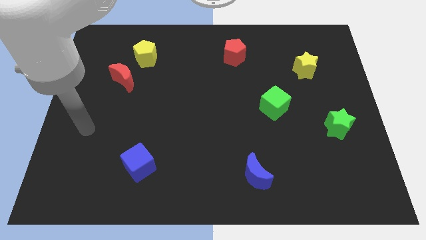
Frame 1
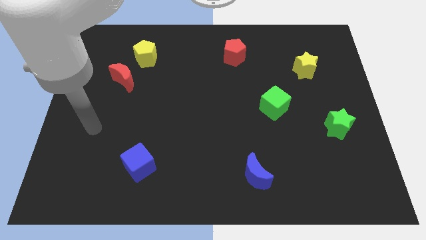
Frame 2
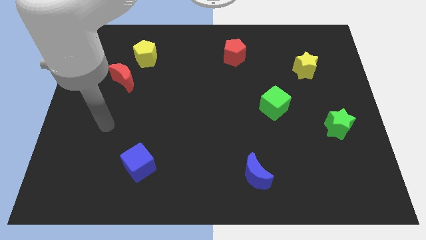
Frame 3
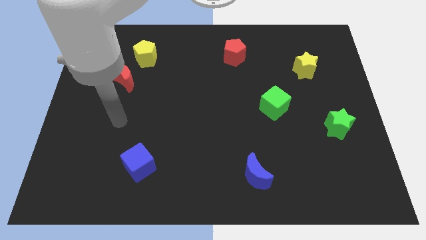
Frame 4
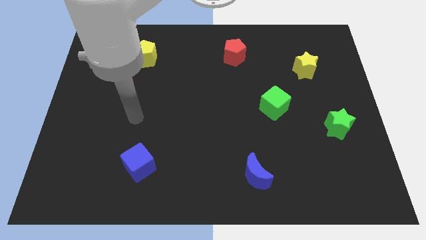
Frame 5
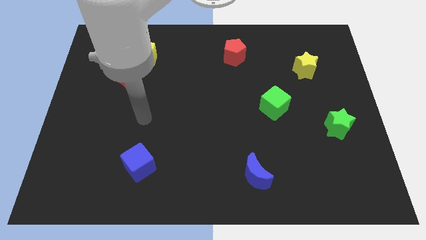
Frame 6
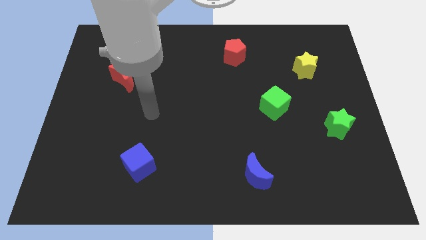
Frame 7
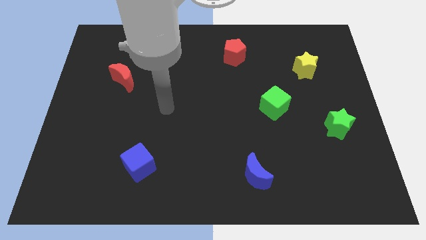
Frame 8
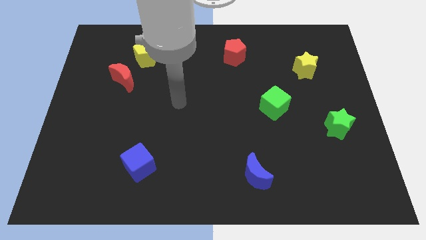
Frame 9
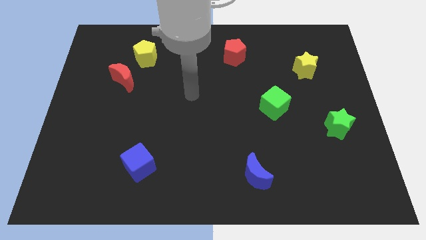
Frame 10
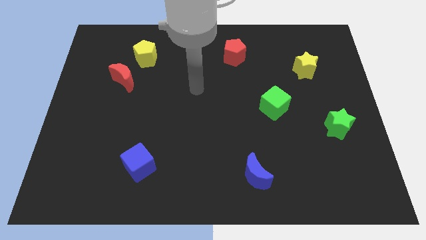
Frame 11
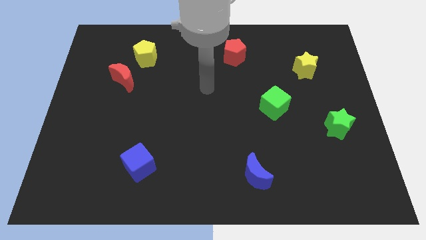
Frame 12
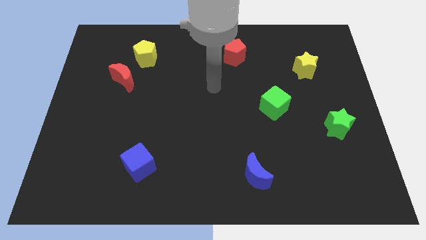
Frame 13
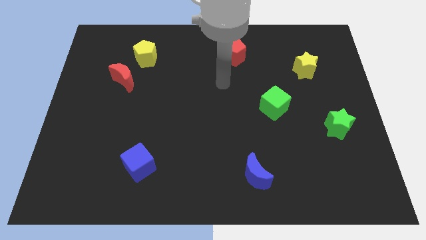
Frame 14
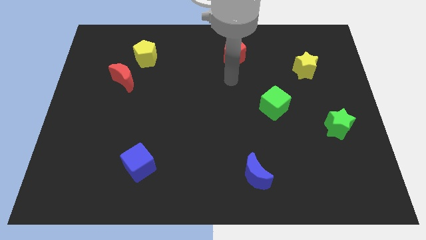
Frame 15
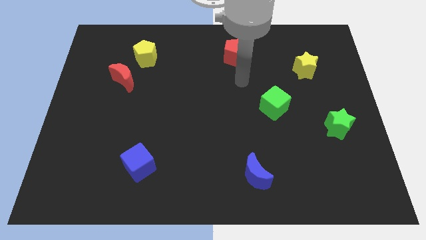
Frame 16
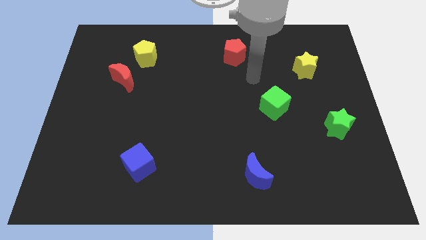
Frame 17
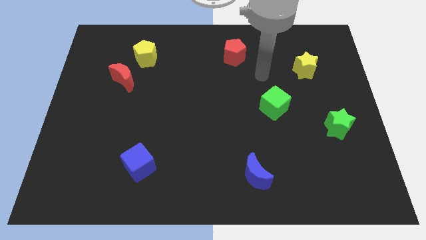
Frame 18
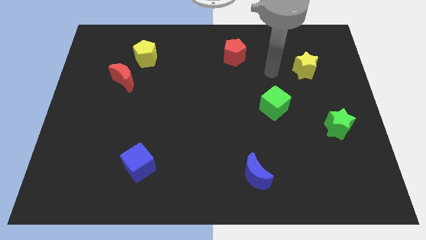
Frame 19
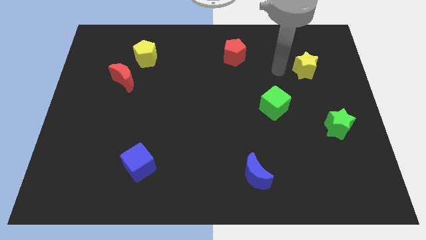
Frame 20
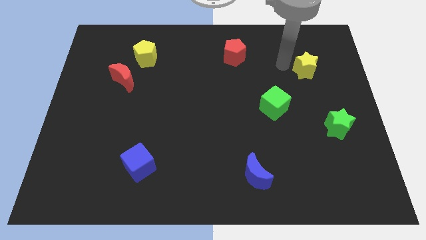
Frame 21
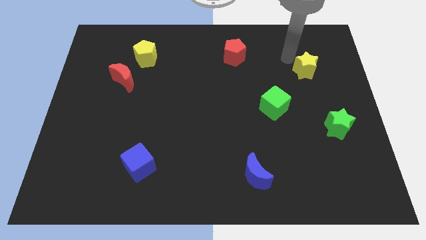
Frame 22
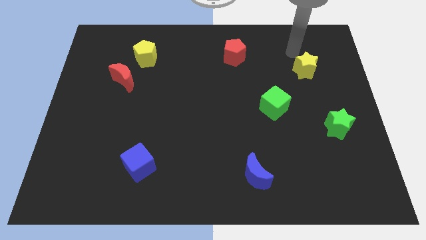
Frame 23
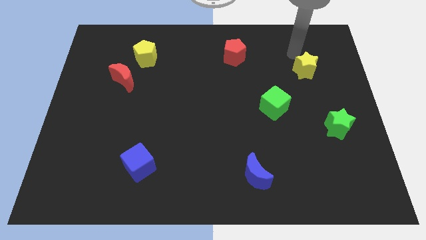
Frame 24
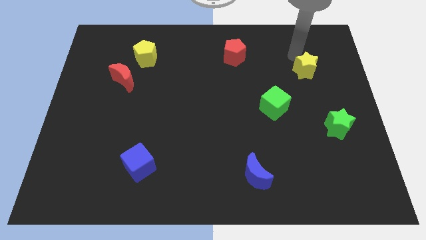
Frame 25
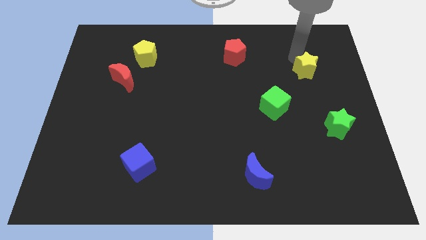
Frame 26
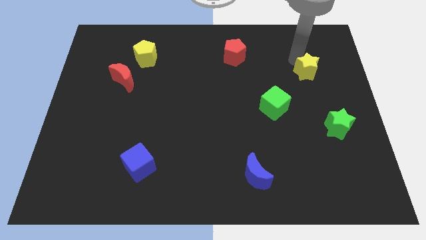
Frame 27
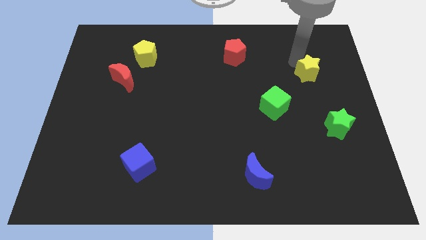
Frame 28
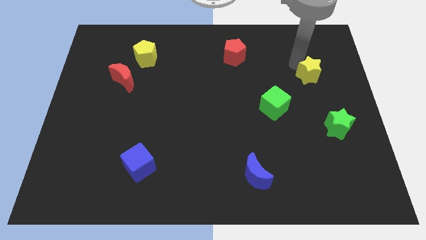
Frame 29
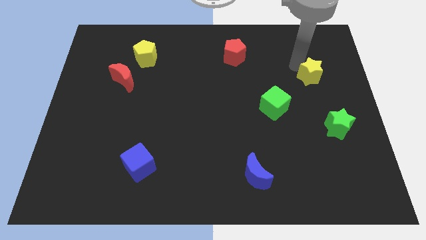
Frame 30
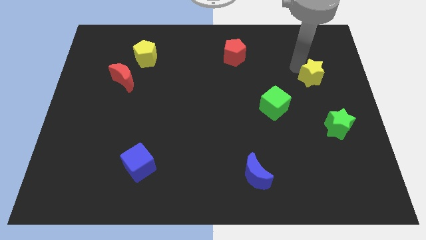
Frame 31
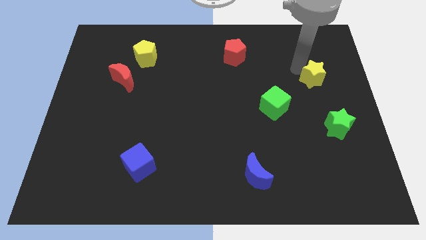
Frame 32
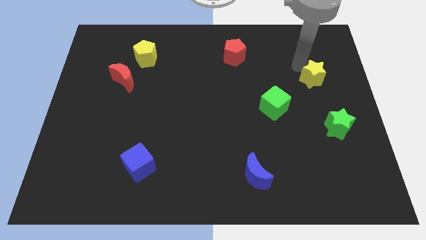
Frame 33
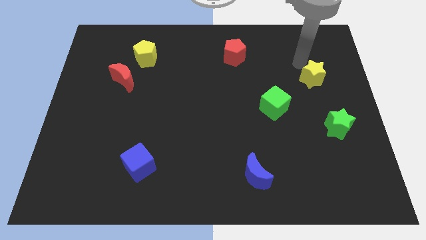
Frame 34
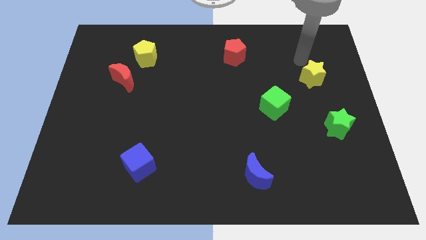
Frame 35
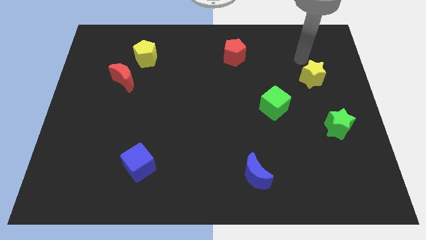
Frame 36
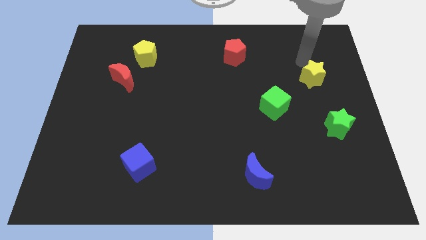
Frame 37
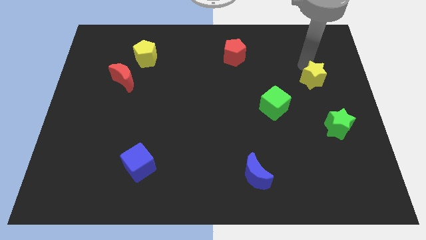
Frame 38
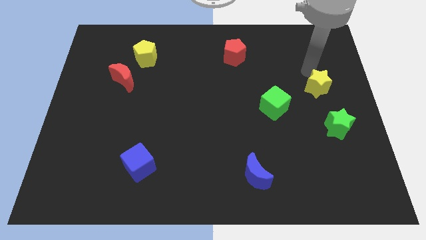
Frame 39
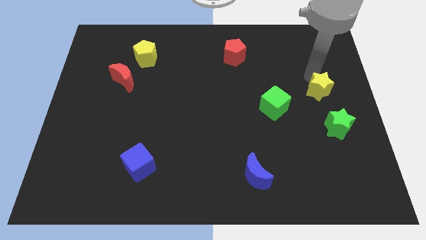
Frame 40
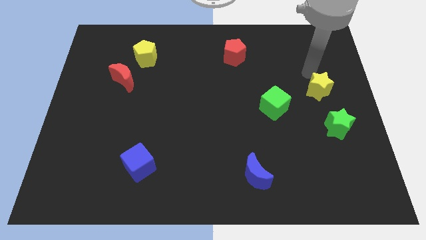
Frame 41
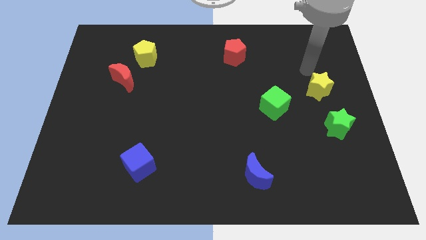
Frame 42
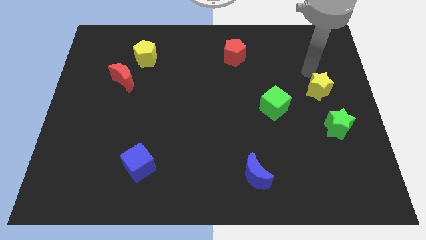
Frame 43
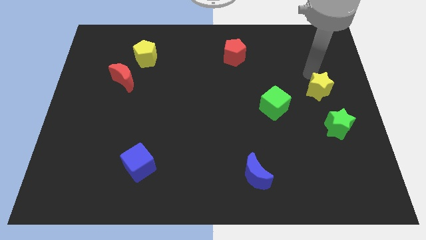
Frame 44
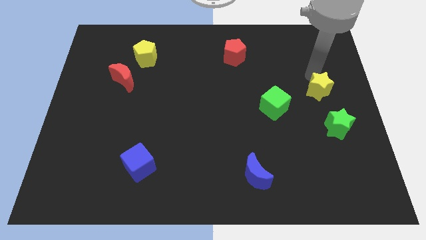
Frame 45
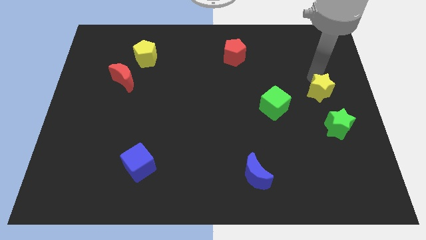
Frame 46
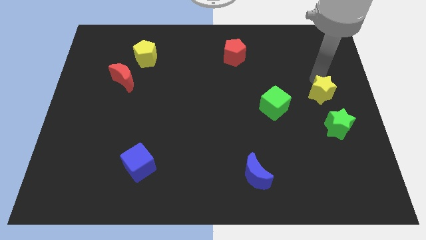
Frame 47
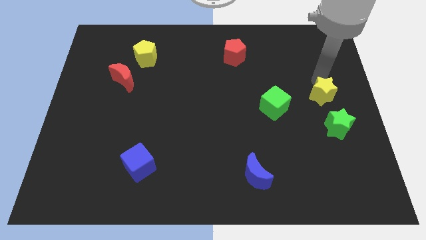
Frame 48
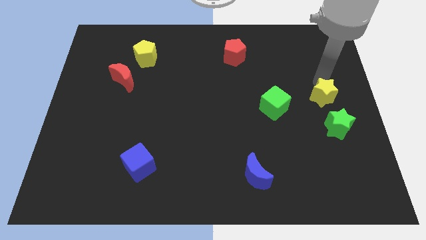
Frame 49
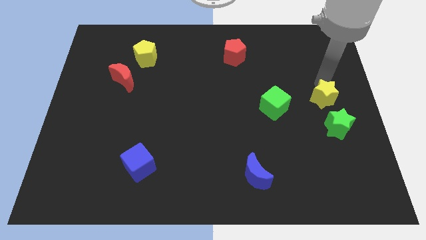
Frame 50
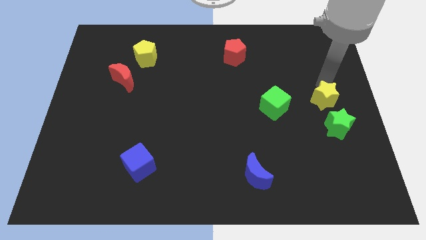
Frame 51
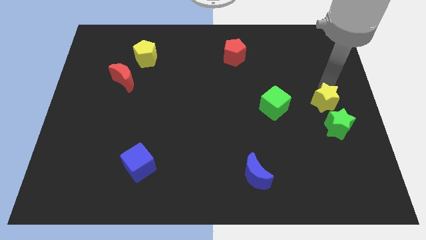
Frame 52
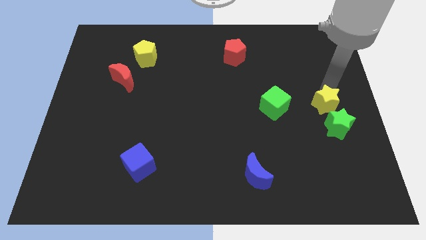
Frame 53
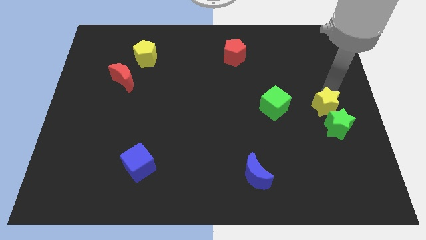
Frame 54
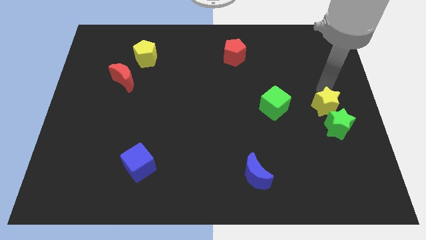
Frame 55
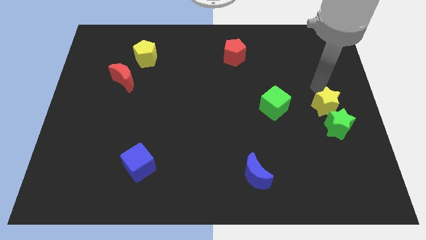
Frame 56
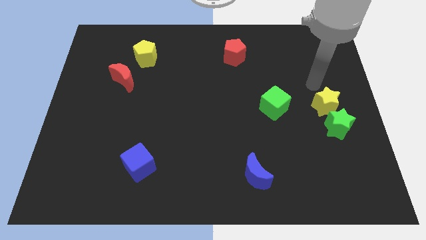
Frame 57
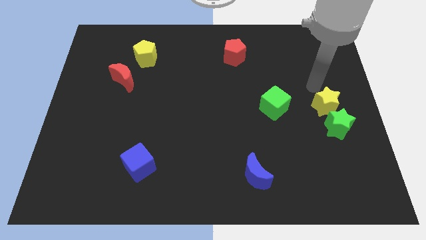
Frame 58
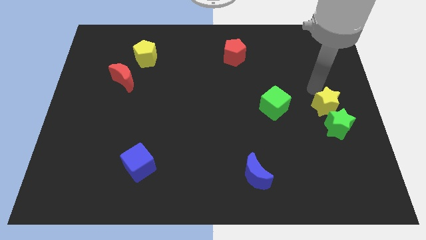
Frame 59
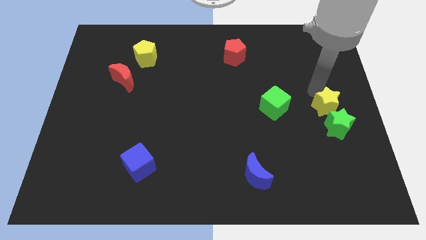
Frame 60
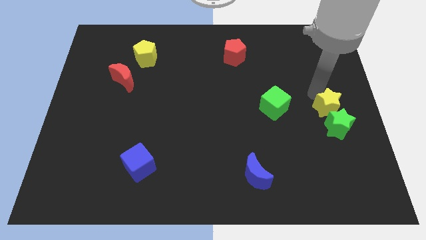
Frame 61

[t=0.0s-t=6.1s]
move the yellow star close to the green star

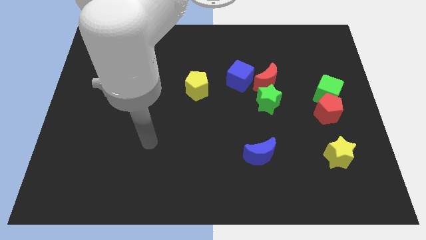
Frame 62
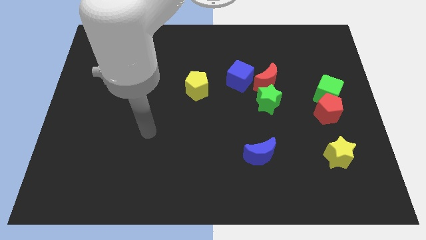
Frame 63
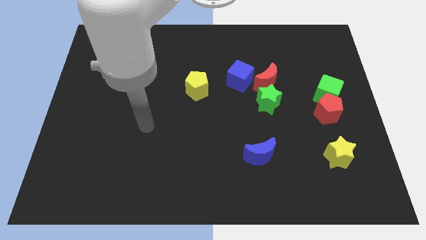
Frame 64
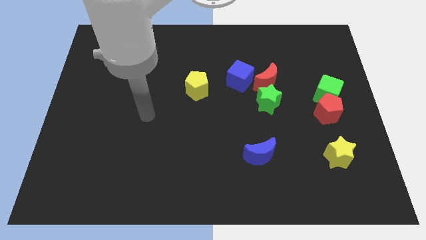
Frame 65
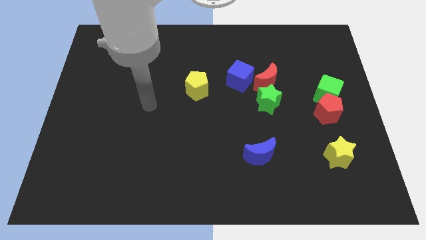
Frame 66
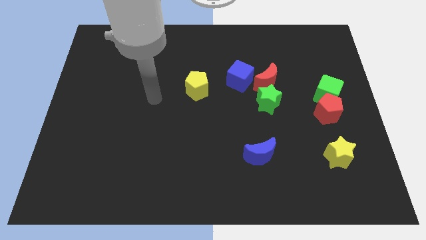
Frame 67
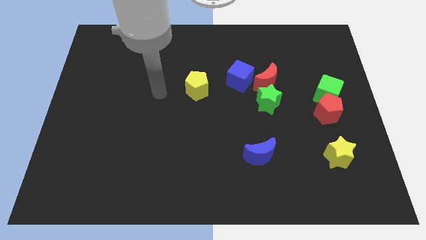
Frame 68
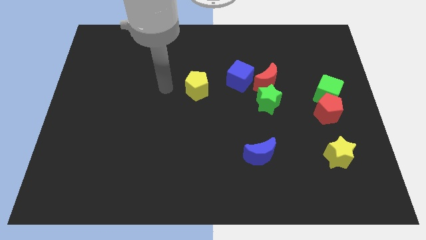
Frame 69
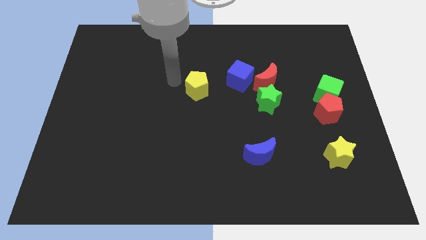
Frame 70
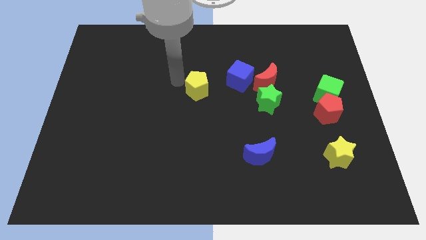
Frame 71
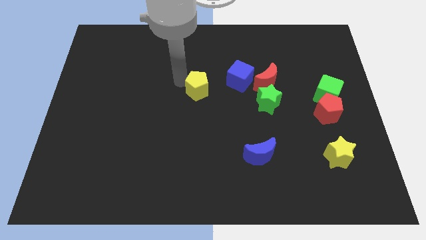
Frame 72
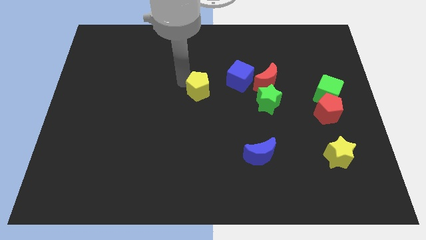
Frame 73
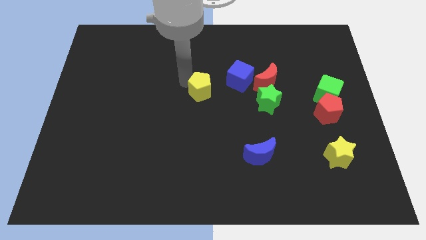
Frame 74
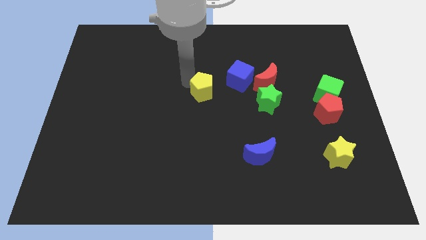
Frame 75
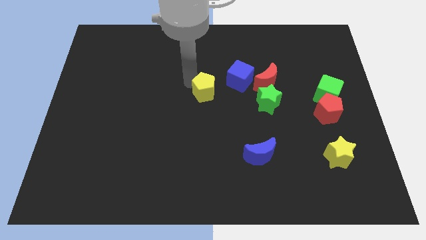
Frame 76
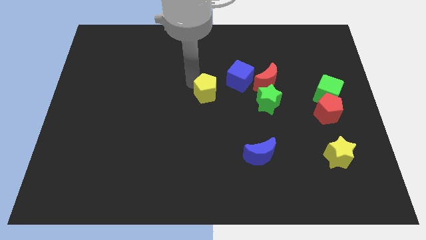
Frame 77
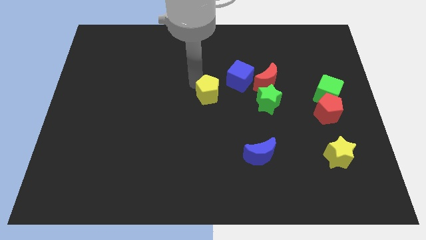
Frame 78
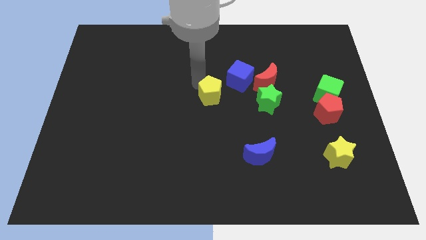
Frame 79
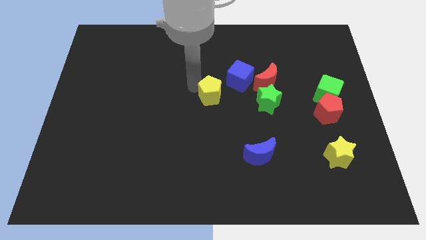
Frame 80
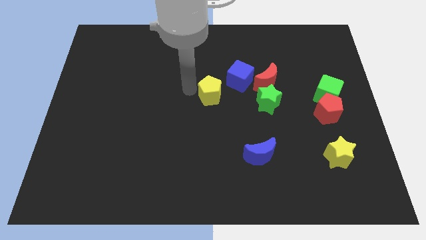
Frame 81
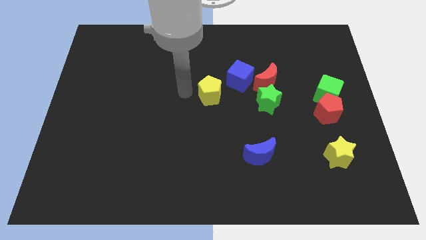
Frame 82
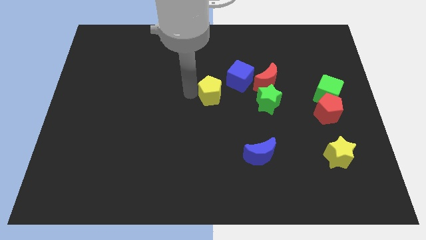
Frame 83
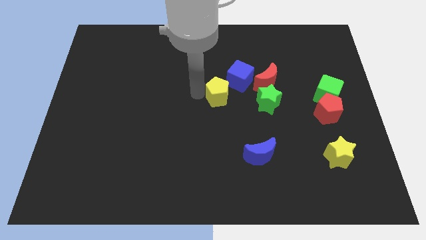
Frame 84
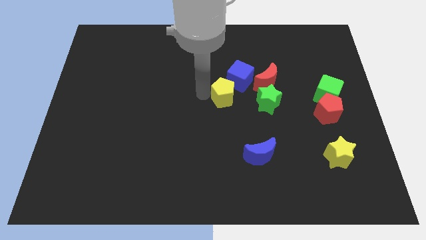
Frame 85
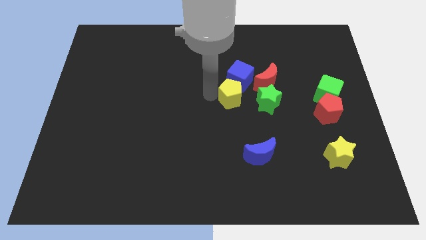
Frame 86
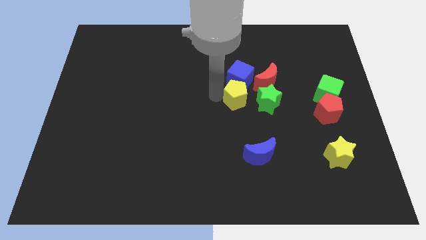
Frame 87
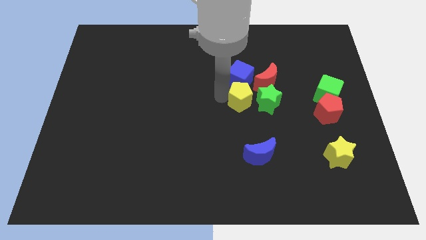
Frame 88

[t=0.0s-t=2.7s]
slide the yellow pentagon towards the green star
